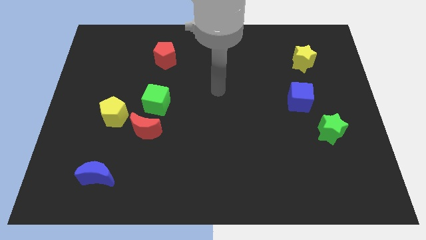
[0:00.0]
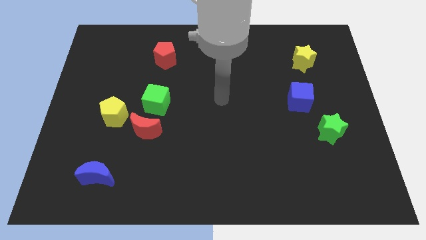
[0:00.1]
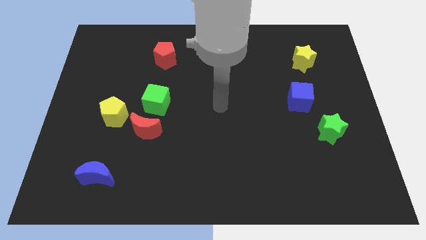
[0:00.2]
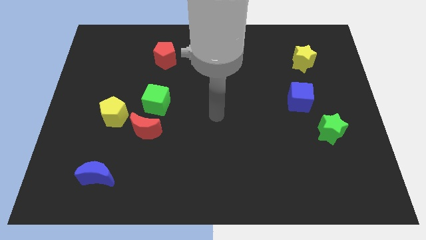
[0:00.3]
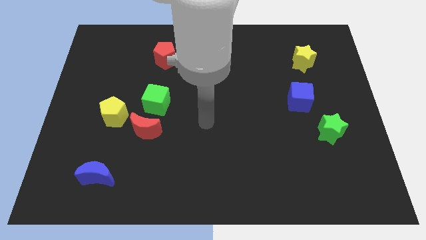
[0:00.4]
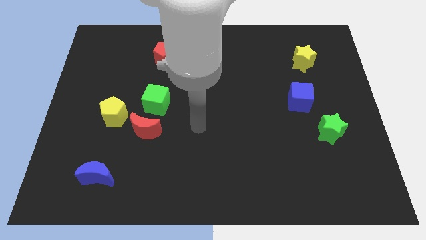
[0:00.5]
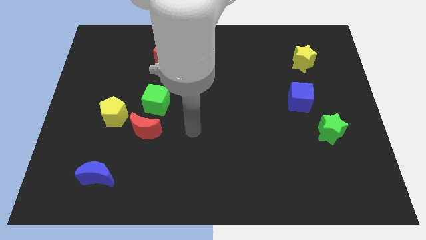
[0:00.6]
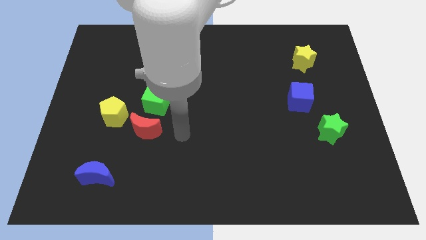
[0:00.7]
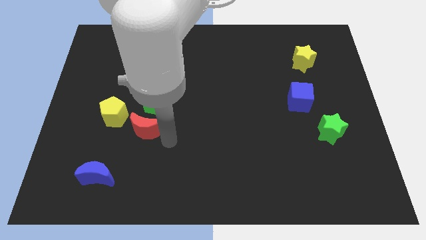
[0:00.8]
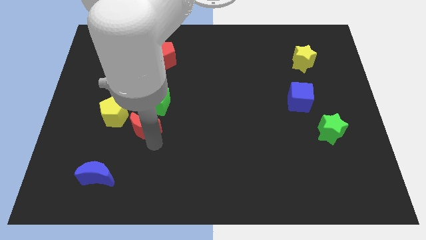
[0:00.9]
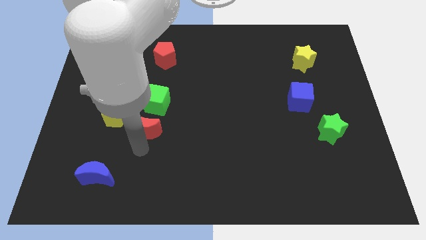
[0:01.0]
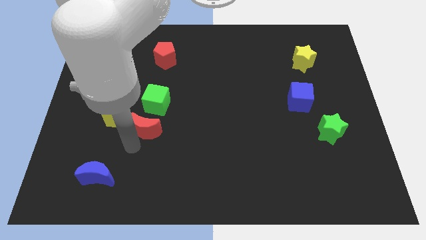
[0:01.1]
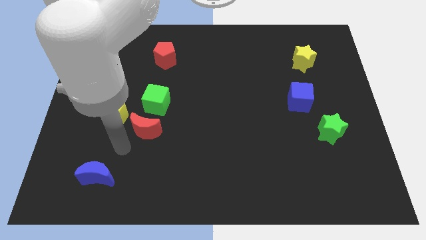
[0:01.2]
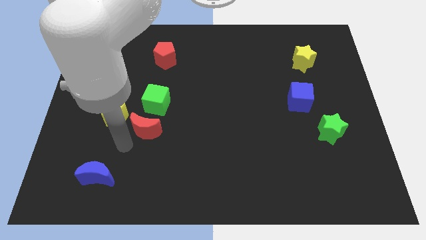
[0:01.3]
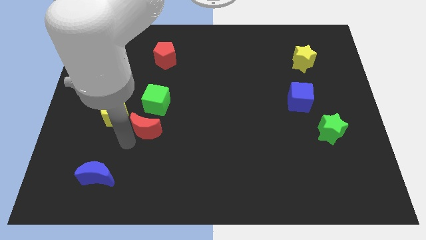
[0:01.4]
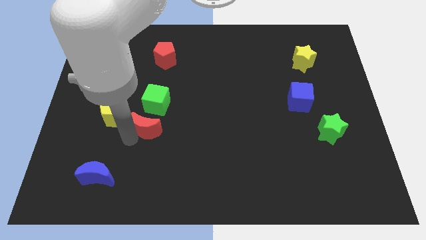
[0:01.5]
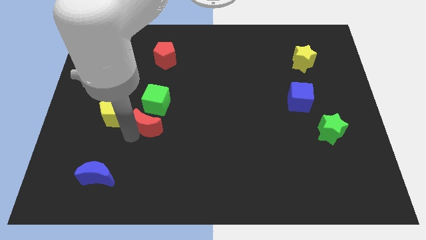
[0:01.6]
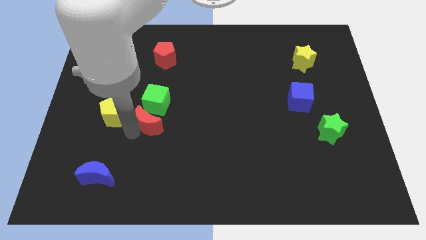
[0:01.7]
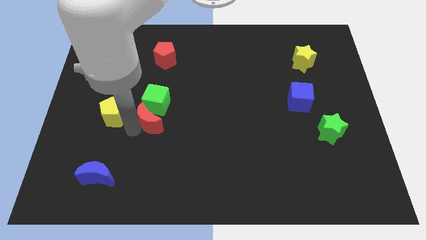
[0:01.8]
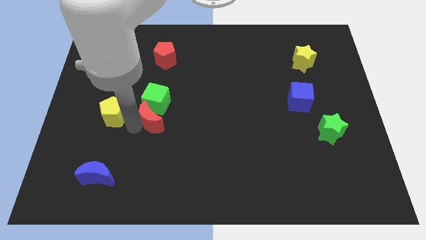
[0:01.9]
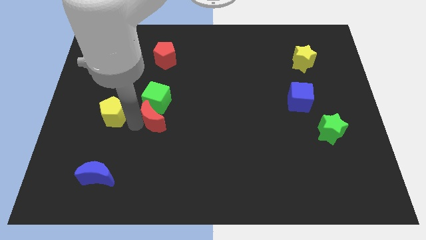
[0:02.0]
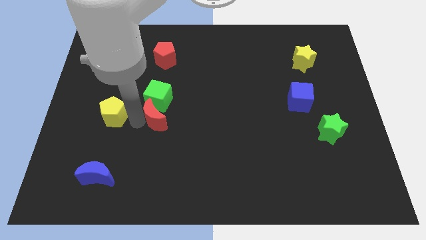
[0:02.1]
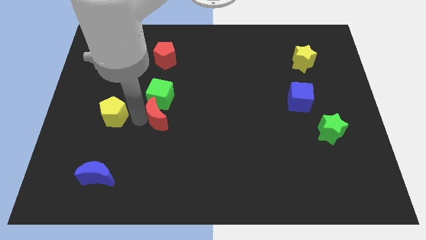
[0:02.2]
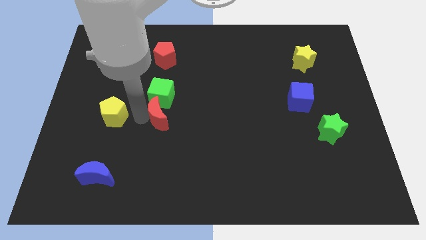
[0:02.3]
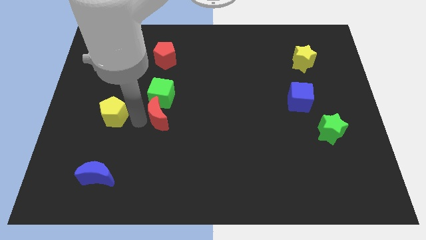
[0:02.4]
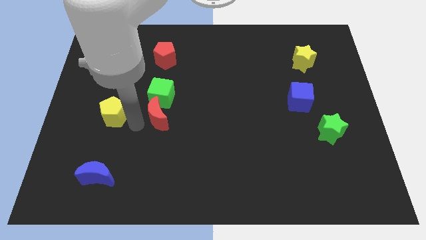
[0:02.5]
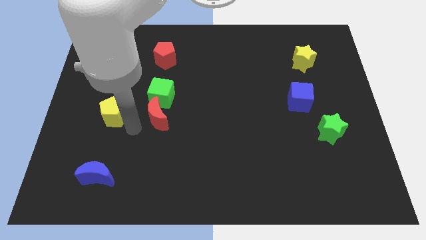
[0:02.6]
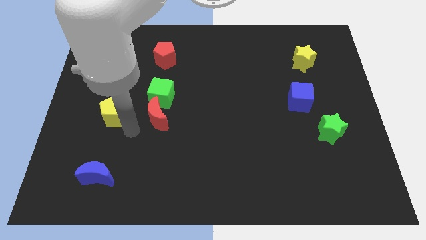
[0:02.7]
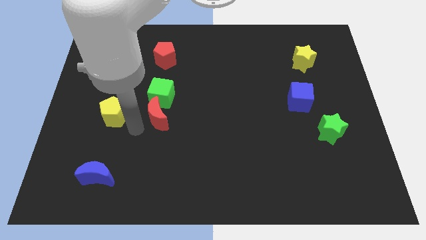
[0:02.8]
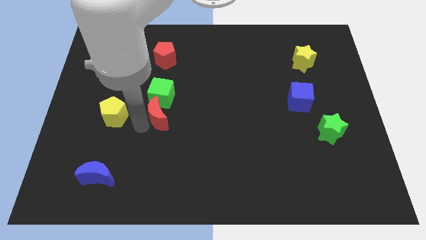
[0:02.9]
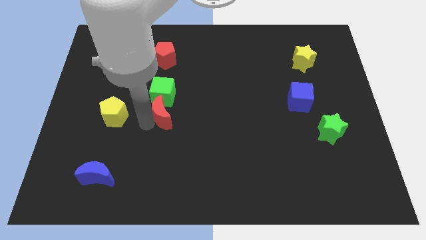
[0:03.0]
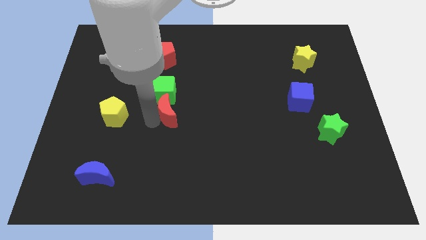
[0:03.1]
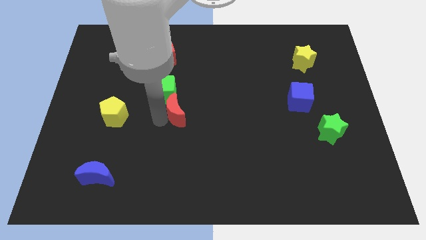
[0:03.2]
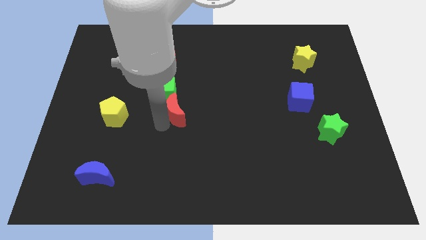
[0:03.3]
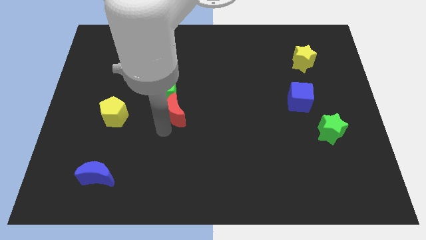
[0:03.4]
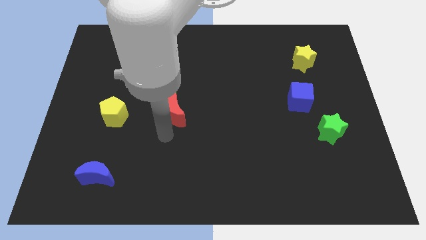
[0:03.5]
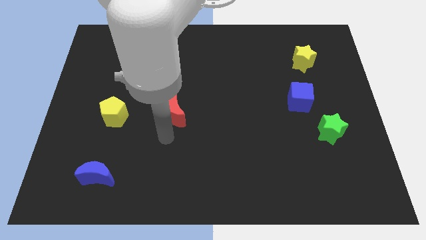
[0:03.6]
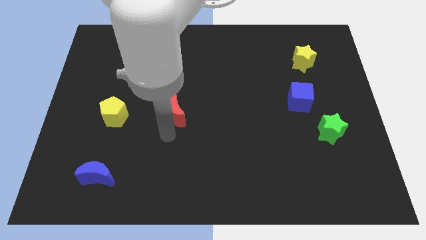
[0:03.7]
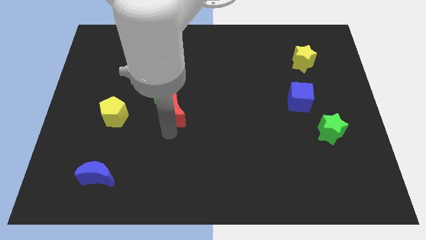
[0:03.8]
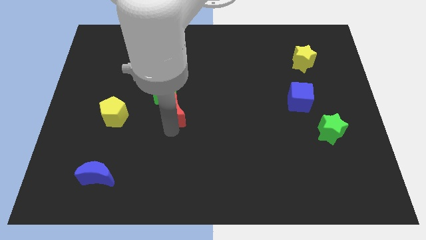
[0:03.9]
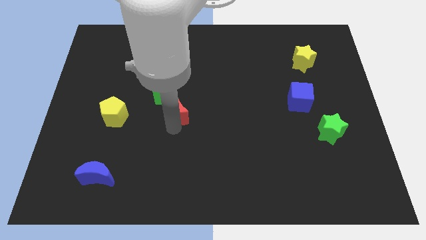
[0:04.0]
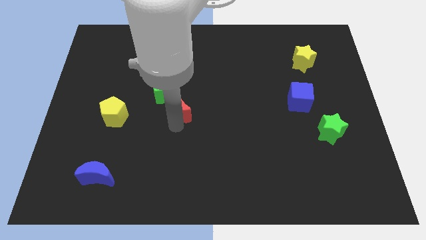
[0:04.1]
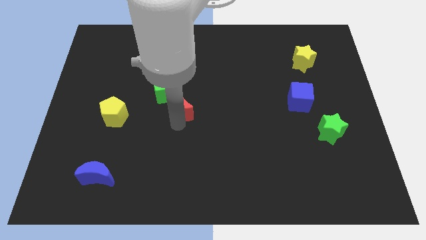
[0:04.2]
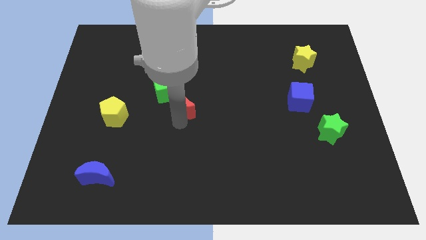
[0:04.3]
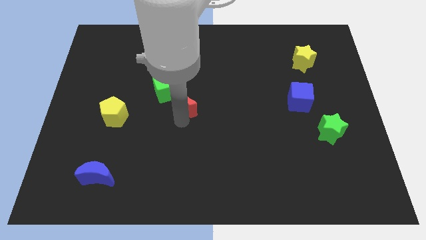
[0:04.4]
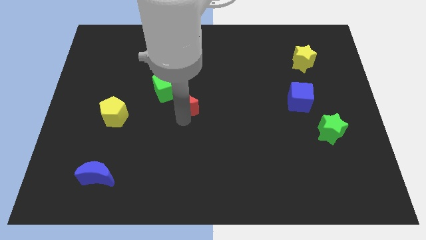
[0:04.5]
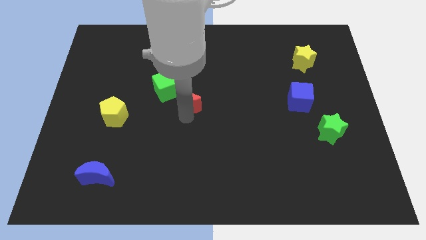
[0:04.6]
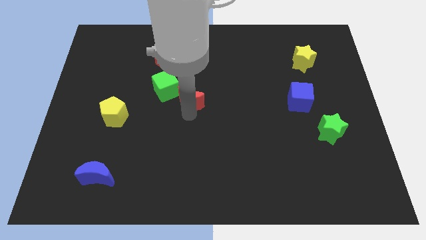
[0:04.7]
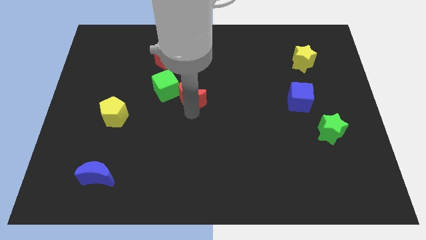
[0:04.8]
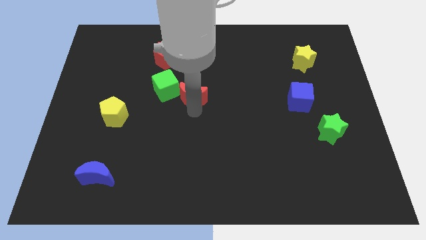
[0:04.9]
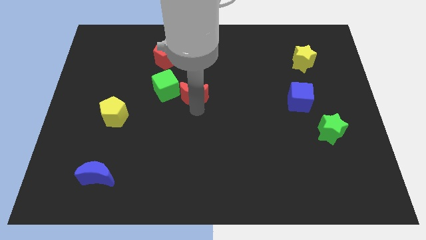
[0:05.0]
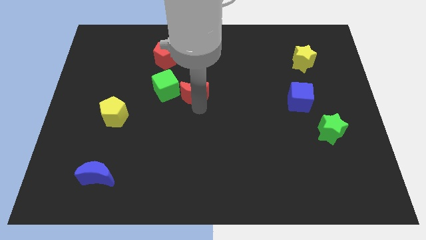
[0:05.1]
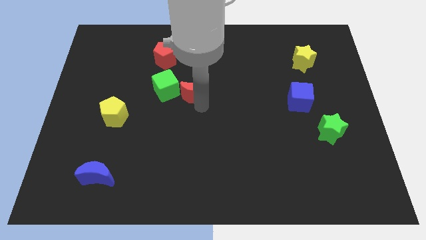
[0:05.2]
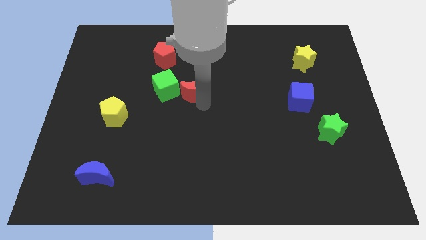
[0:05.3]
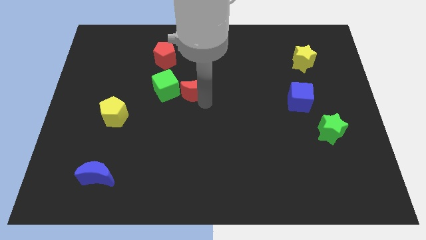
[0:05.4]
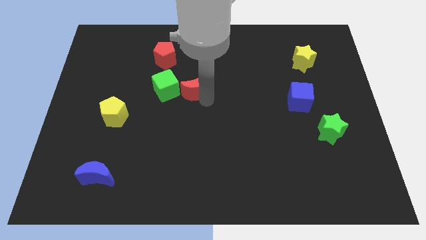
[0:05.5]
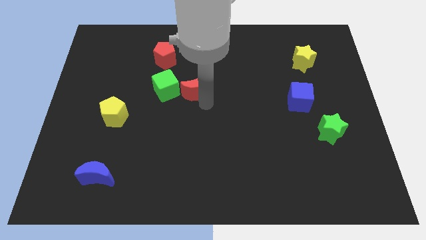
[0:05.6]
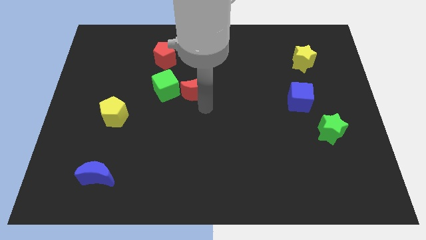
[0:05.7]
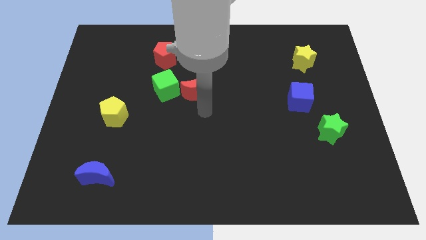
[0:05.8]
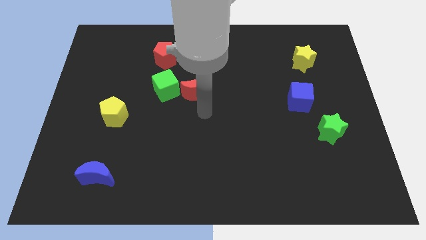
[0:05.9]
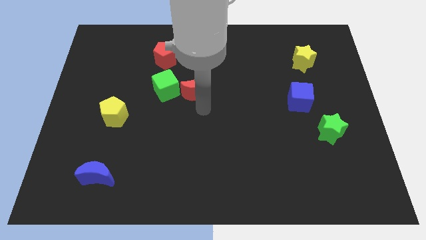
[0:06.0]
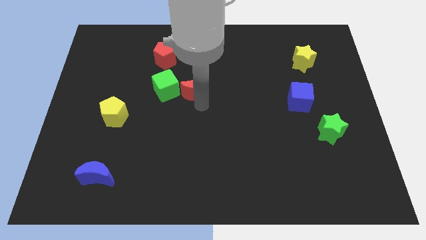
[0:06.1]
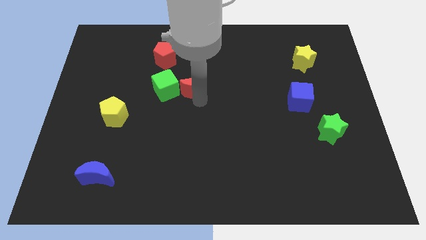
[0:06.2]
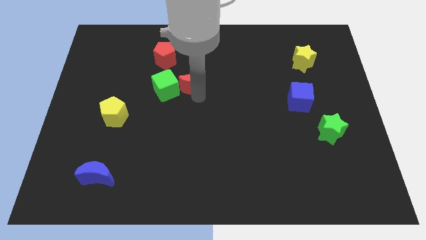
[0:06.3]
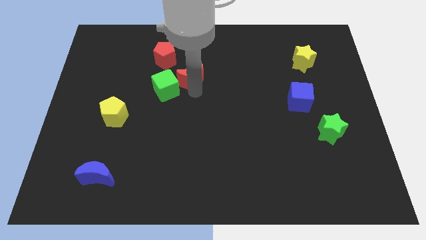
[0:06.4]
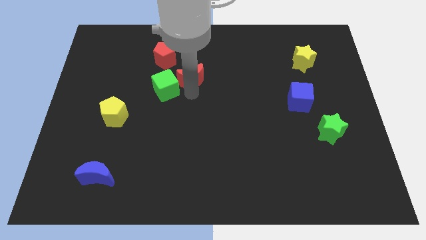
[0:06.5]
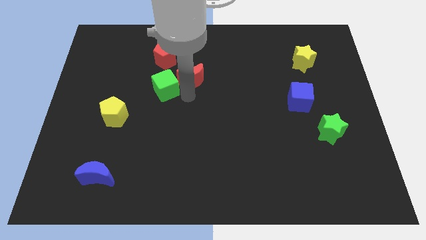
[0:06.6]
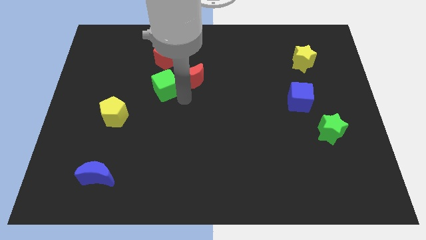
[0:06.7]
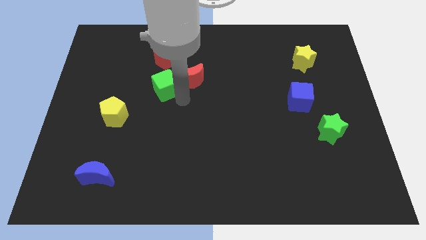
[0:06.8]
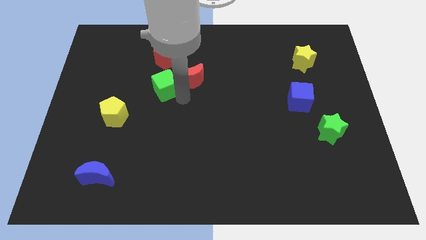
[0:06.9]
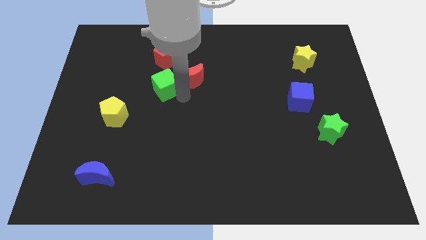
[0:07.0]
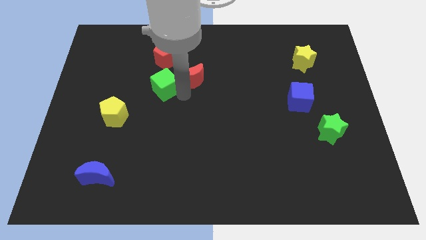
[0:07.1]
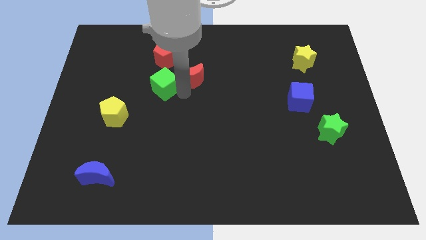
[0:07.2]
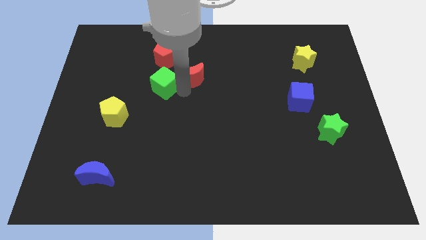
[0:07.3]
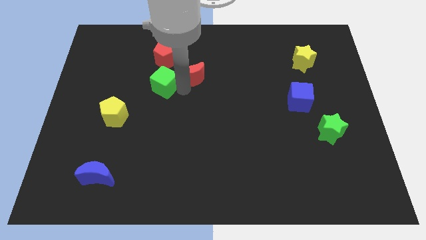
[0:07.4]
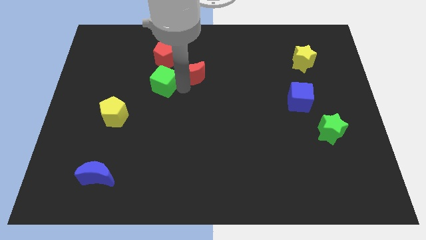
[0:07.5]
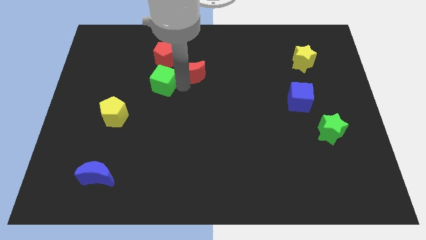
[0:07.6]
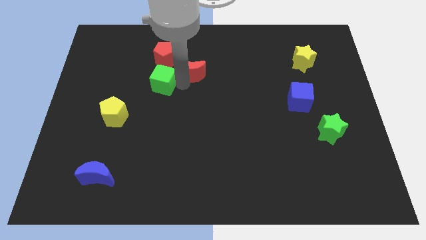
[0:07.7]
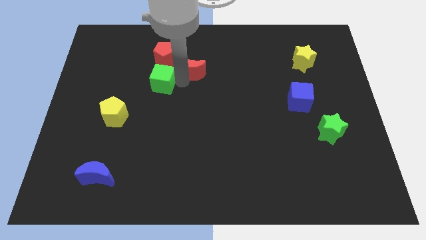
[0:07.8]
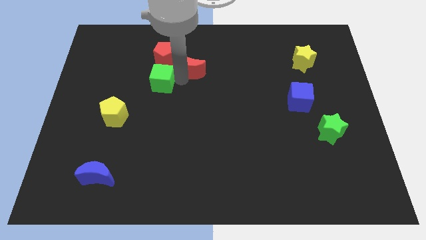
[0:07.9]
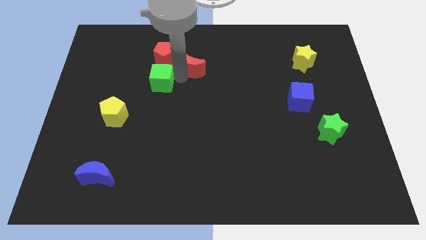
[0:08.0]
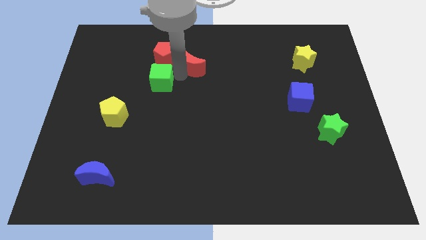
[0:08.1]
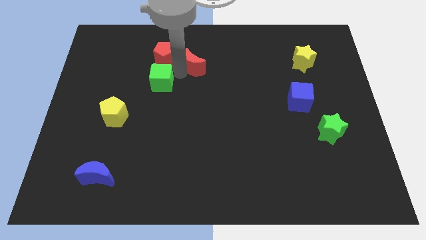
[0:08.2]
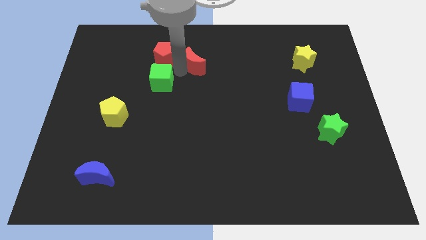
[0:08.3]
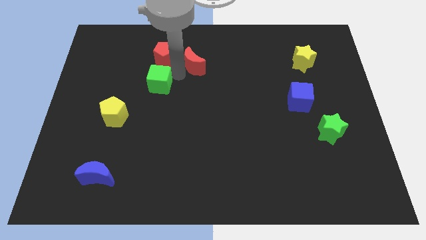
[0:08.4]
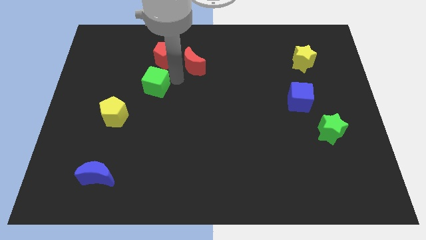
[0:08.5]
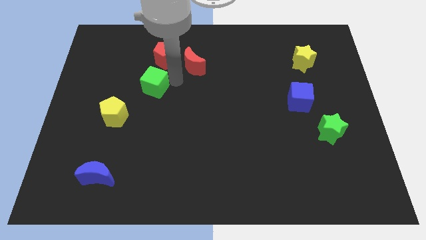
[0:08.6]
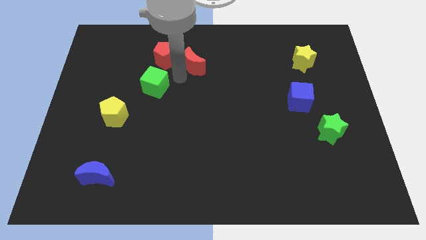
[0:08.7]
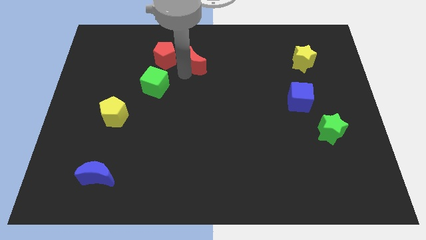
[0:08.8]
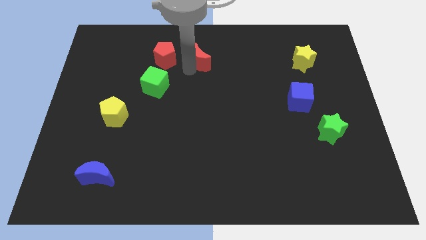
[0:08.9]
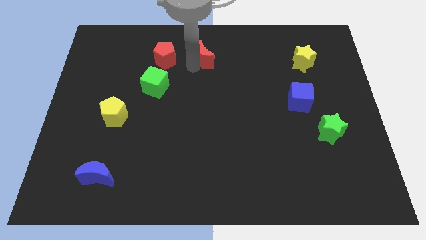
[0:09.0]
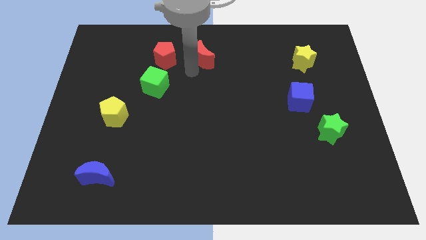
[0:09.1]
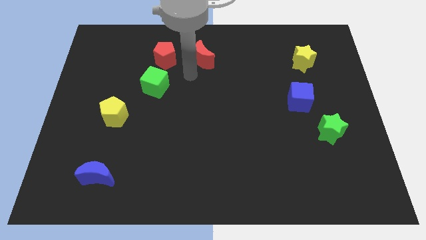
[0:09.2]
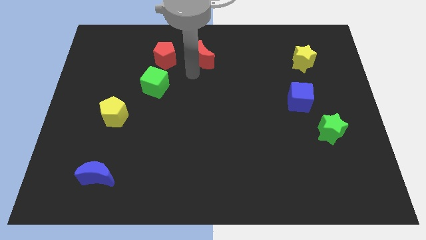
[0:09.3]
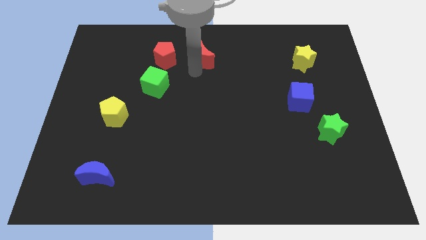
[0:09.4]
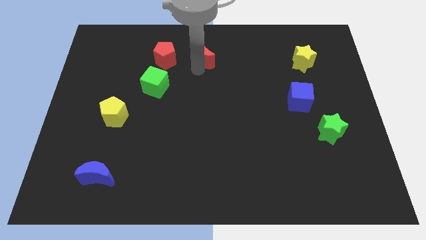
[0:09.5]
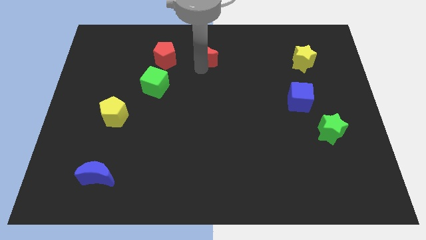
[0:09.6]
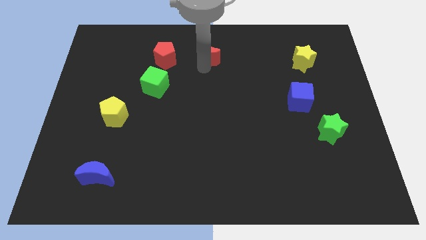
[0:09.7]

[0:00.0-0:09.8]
slide the red moon to the top
